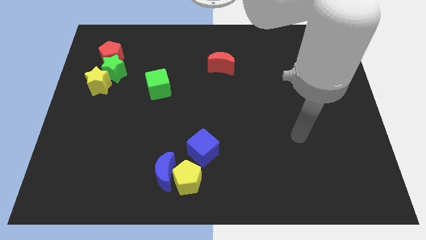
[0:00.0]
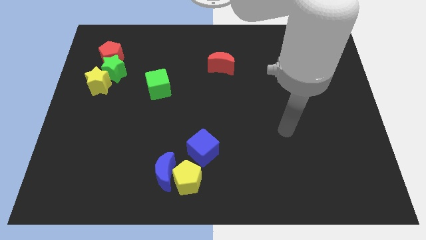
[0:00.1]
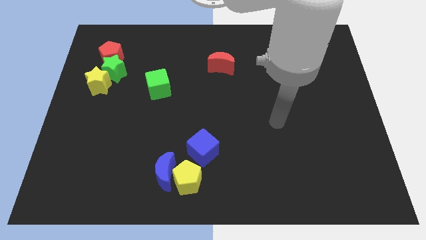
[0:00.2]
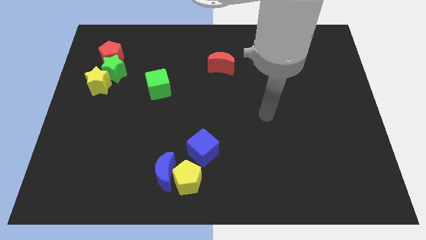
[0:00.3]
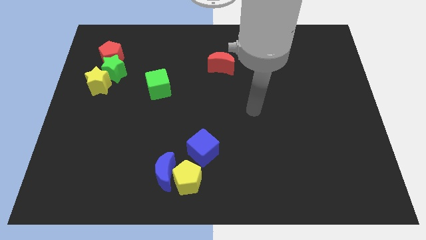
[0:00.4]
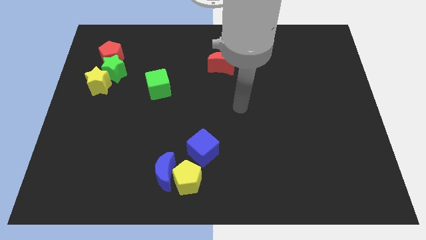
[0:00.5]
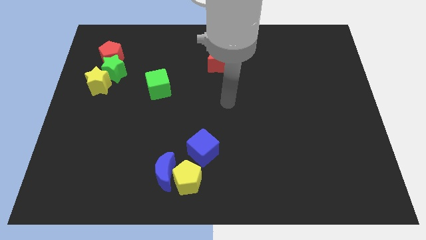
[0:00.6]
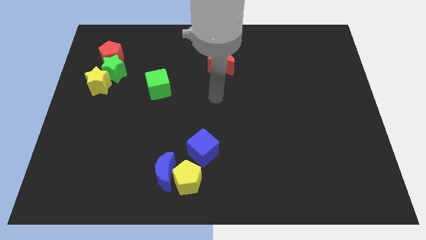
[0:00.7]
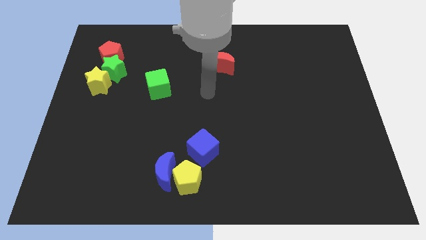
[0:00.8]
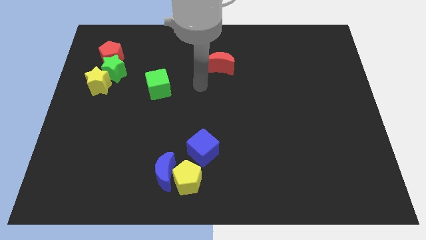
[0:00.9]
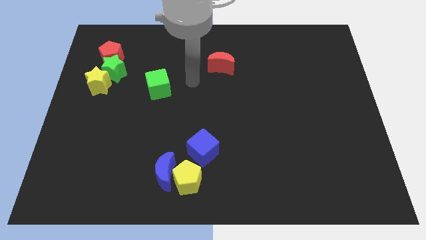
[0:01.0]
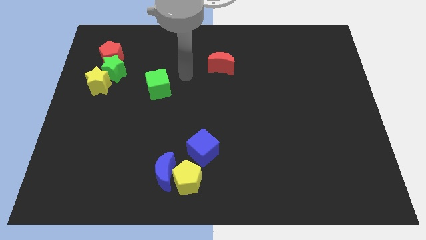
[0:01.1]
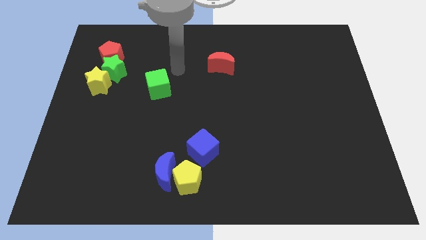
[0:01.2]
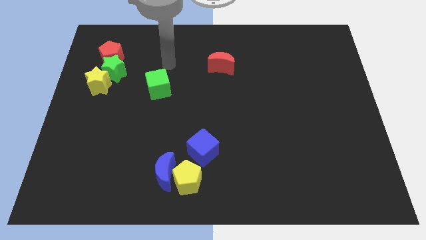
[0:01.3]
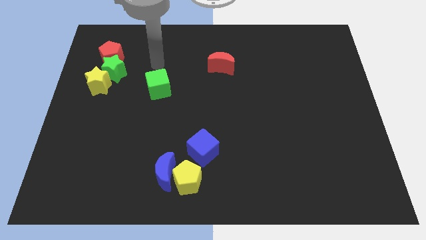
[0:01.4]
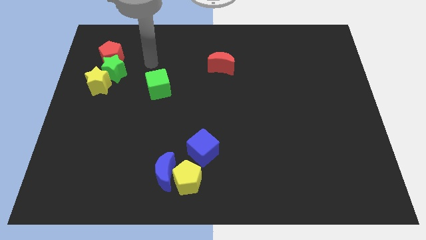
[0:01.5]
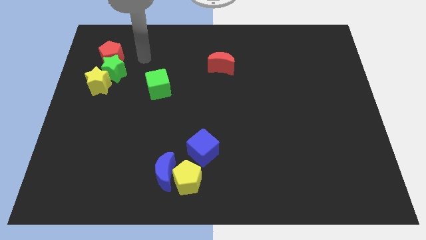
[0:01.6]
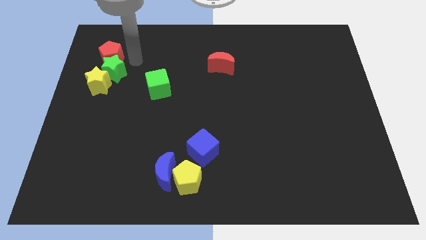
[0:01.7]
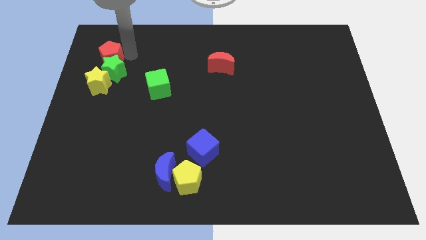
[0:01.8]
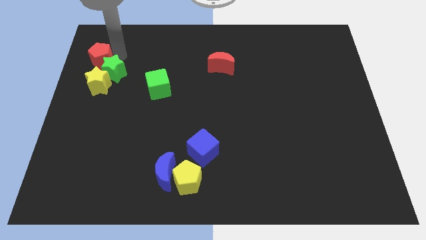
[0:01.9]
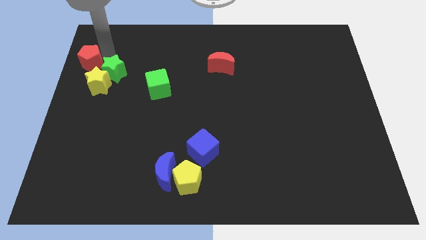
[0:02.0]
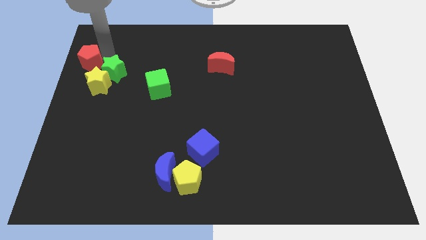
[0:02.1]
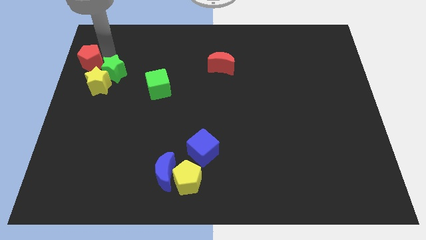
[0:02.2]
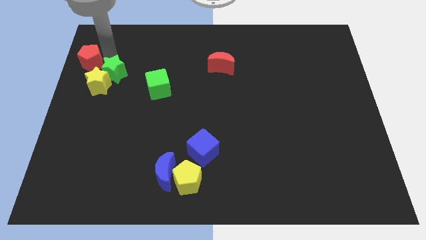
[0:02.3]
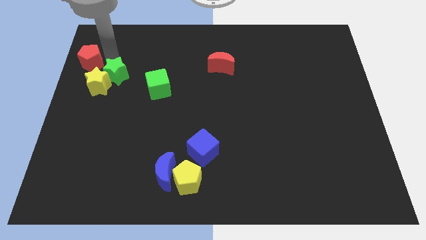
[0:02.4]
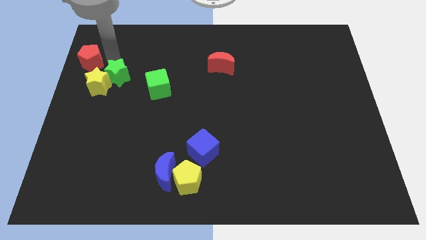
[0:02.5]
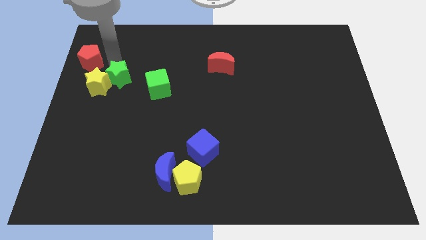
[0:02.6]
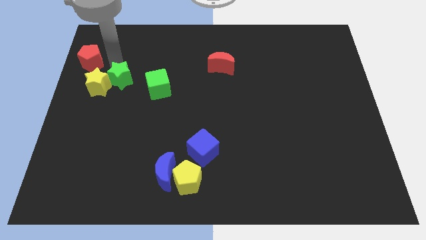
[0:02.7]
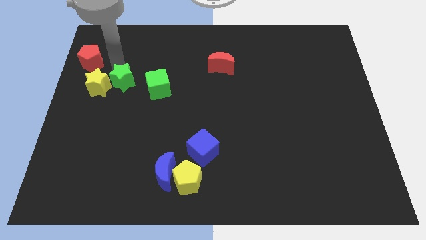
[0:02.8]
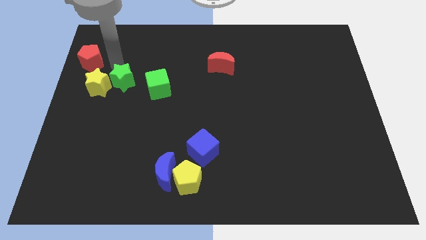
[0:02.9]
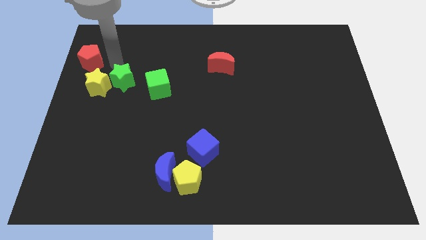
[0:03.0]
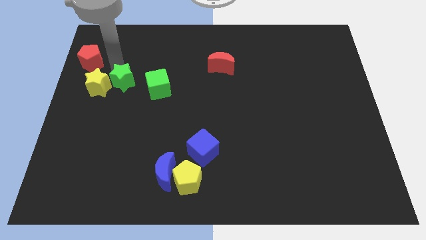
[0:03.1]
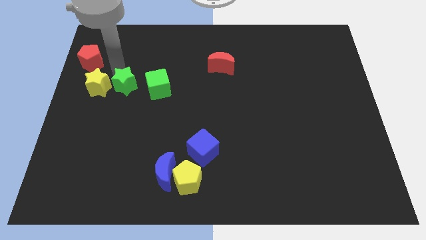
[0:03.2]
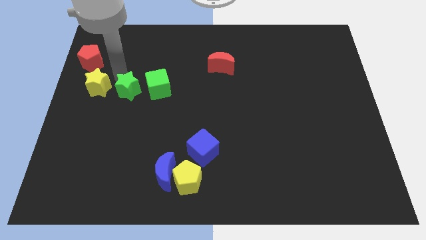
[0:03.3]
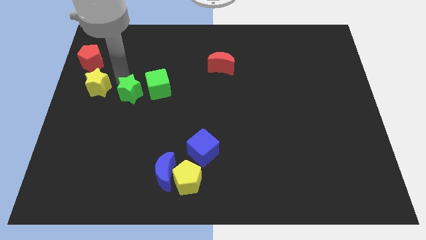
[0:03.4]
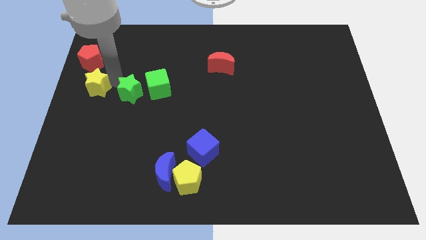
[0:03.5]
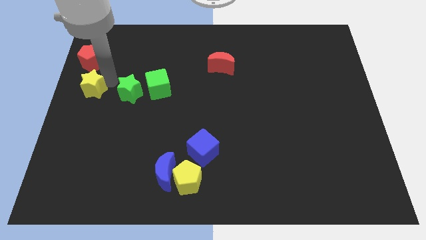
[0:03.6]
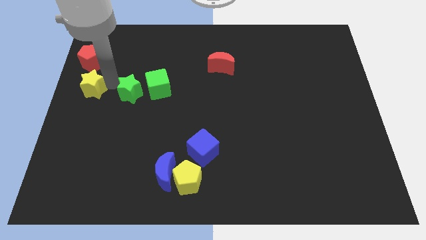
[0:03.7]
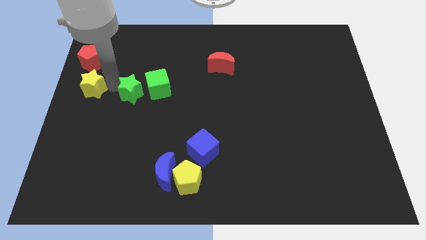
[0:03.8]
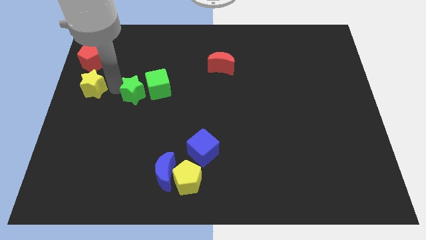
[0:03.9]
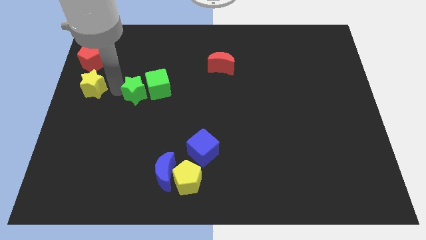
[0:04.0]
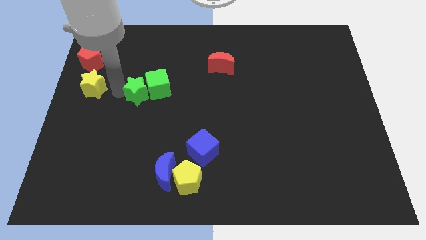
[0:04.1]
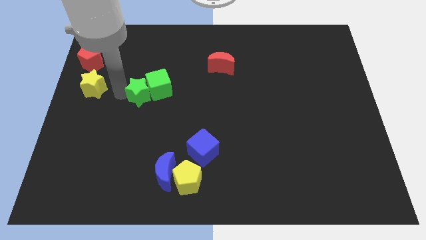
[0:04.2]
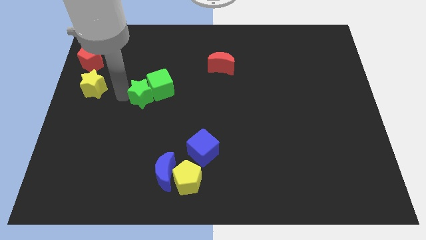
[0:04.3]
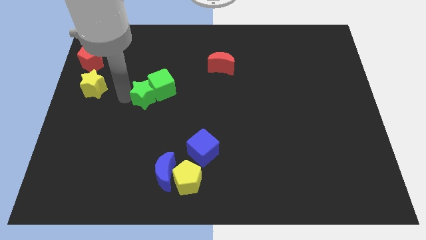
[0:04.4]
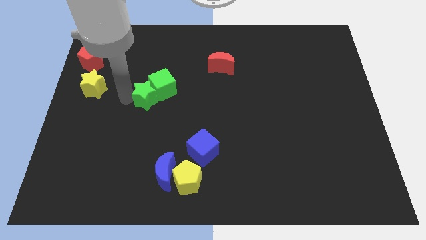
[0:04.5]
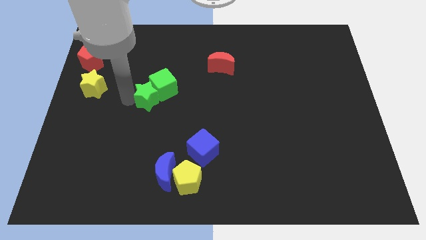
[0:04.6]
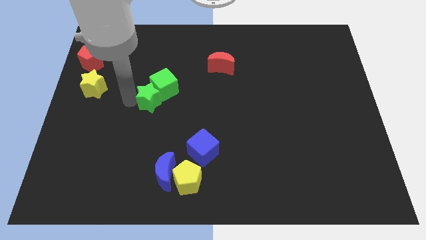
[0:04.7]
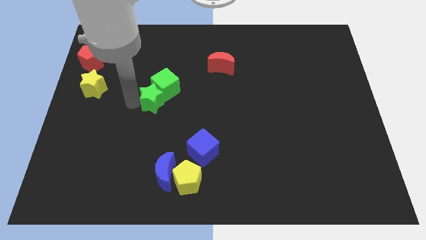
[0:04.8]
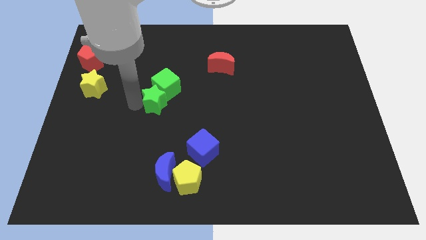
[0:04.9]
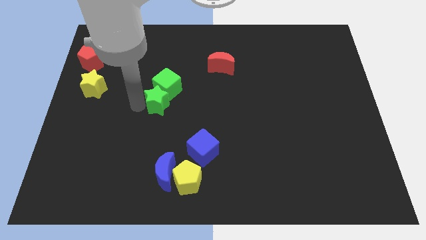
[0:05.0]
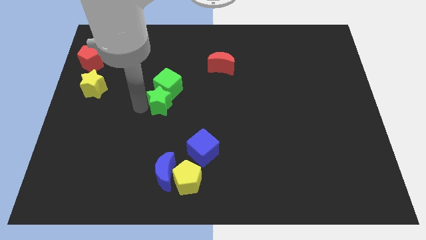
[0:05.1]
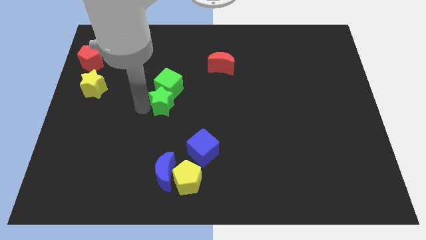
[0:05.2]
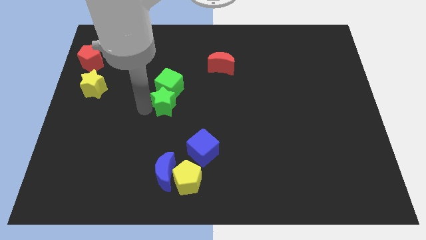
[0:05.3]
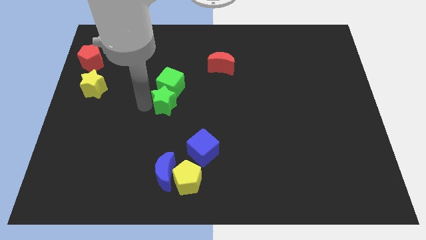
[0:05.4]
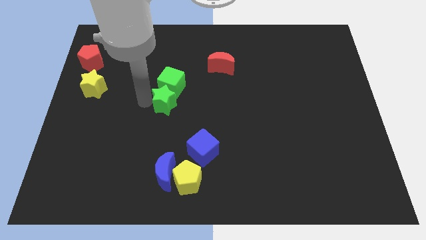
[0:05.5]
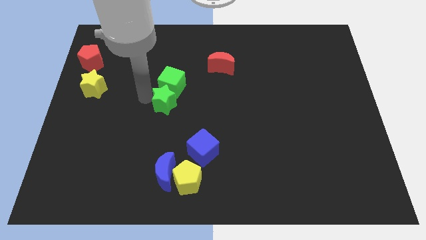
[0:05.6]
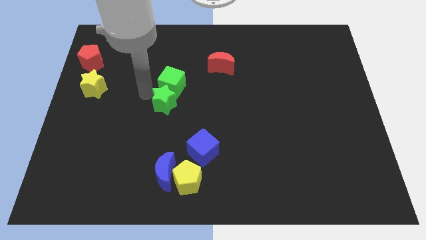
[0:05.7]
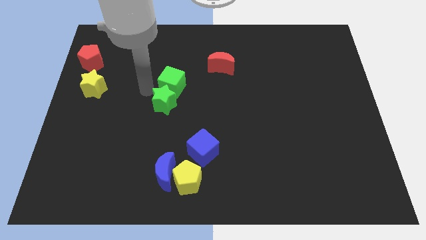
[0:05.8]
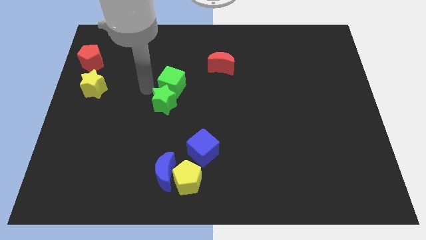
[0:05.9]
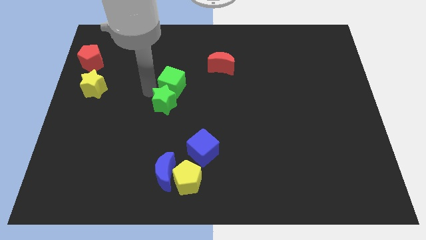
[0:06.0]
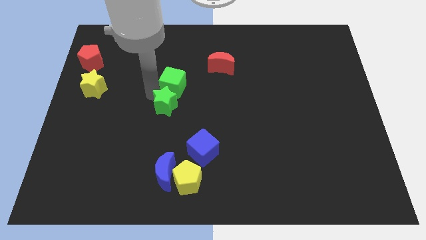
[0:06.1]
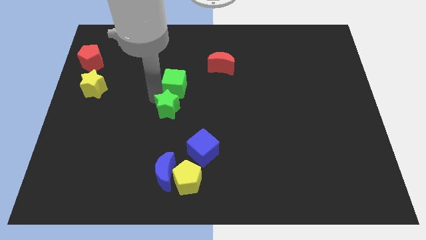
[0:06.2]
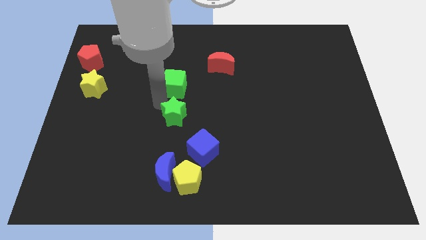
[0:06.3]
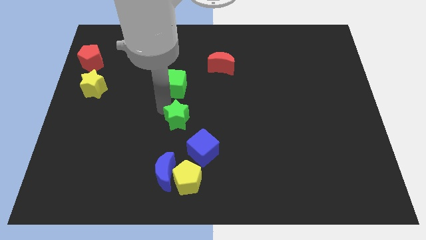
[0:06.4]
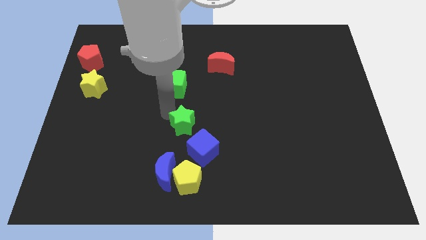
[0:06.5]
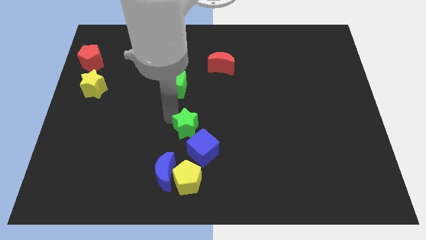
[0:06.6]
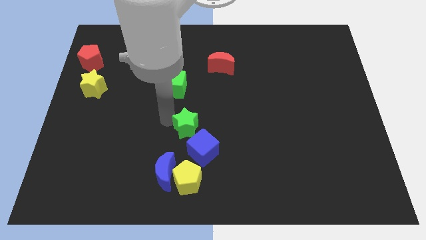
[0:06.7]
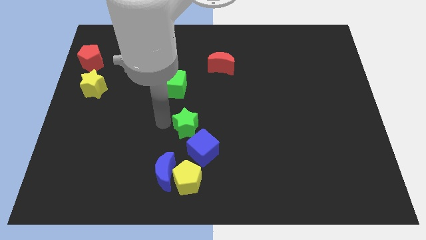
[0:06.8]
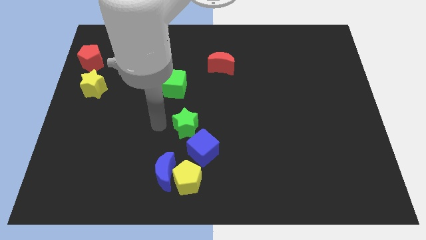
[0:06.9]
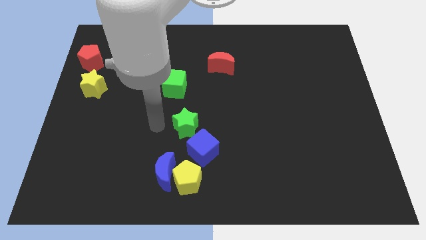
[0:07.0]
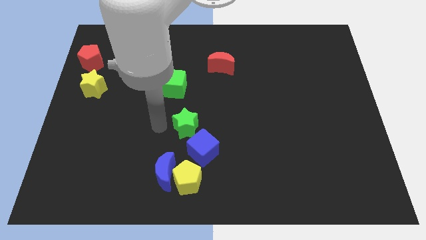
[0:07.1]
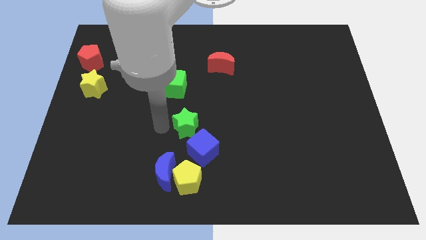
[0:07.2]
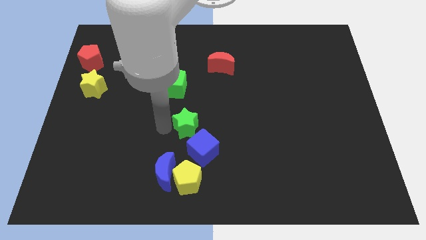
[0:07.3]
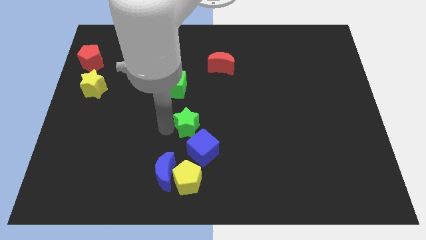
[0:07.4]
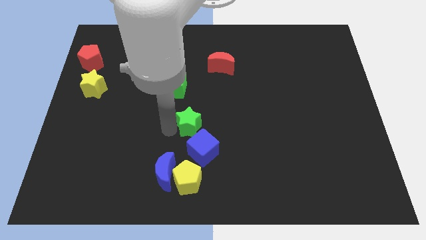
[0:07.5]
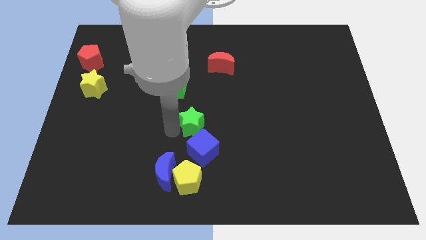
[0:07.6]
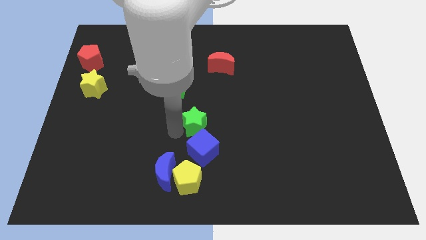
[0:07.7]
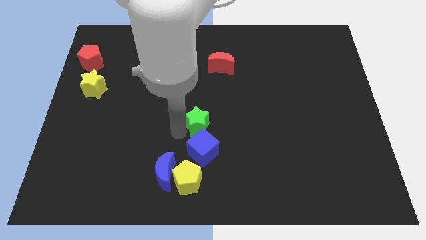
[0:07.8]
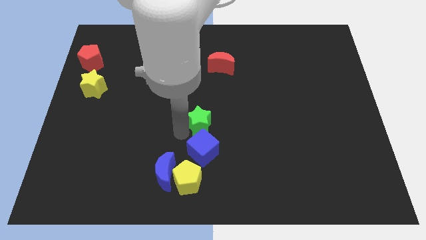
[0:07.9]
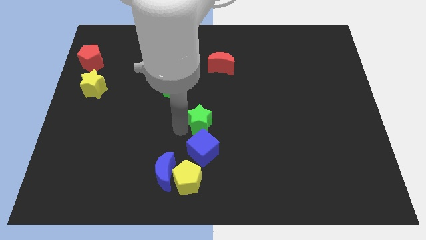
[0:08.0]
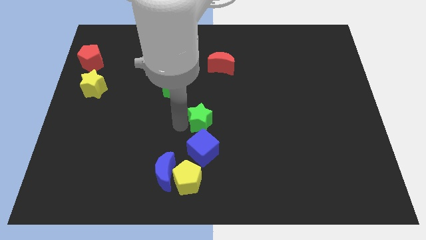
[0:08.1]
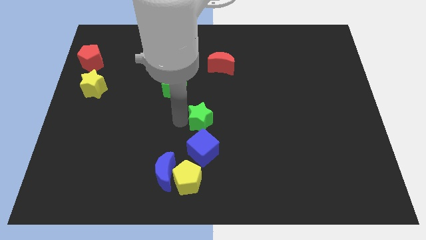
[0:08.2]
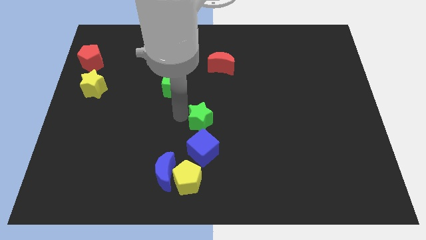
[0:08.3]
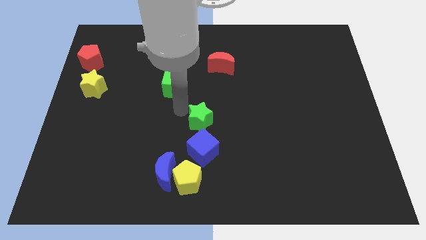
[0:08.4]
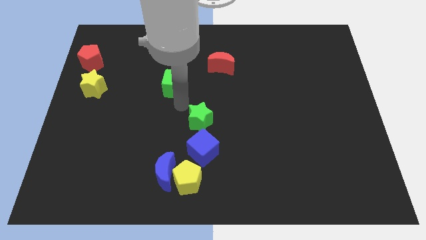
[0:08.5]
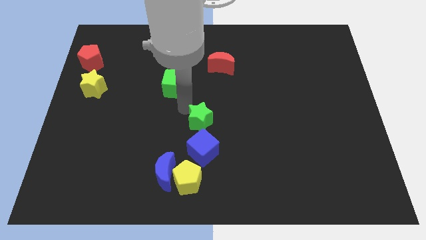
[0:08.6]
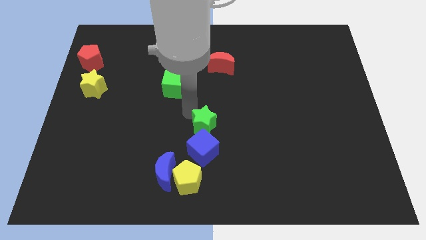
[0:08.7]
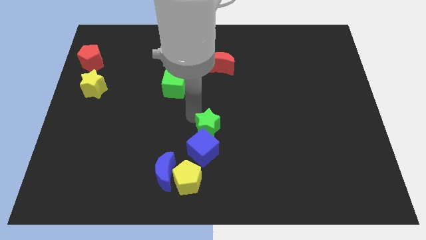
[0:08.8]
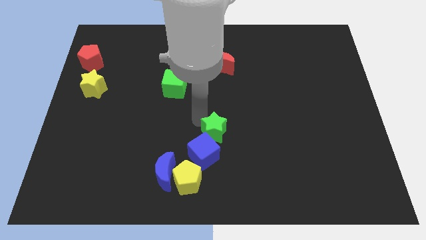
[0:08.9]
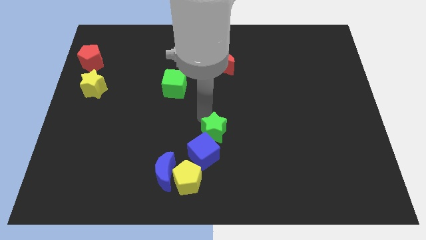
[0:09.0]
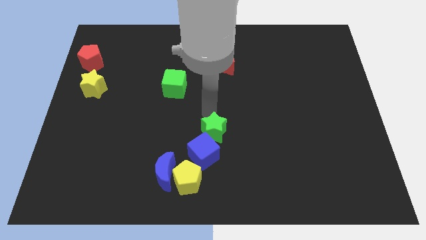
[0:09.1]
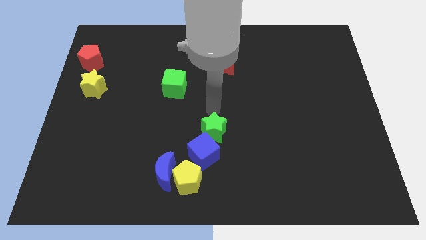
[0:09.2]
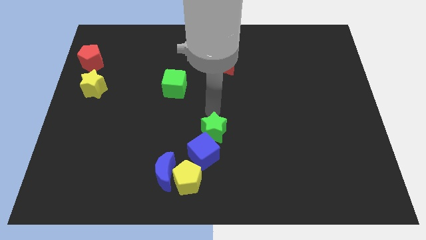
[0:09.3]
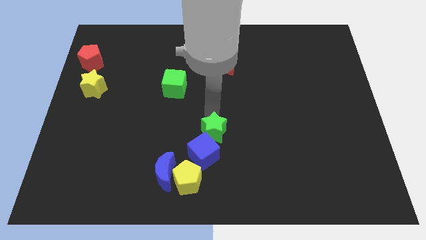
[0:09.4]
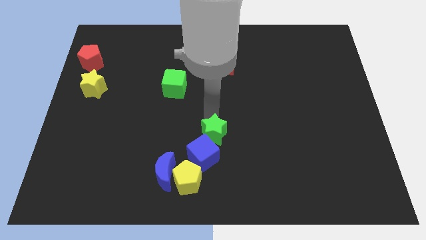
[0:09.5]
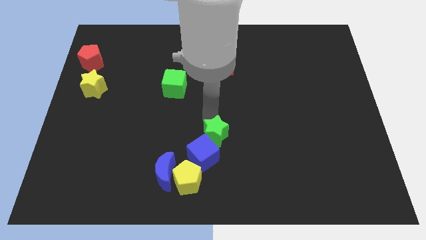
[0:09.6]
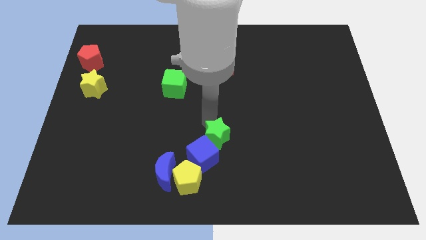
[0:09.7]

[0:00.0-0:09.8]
put the green star to the top right of the yellow pentagon
